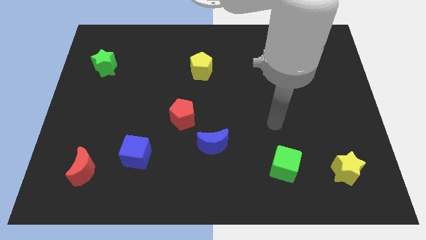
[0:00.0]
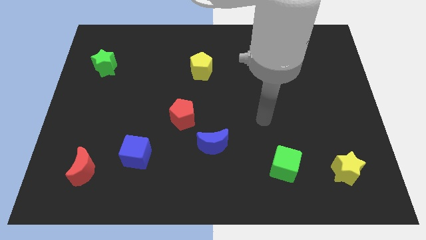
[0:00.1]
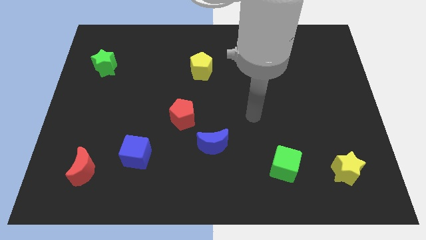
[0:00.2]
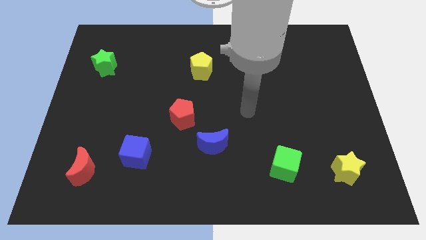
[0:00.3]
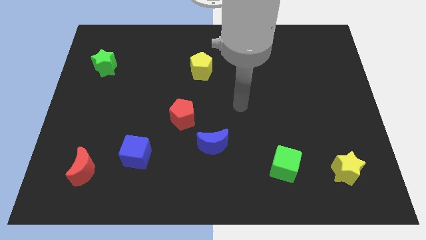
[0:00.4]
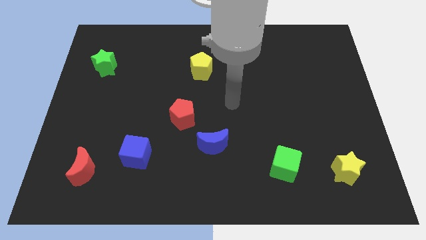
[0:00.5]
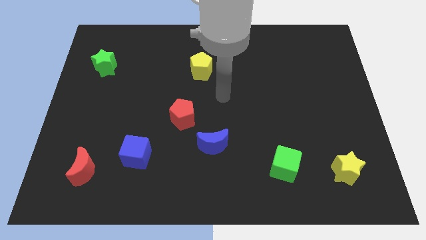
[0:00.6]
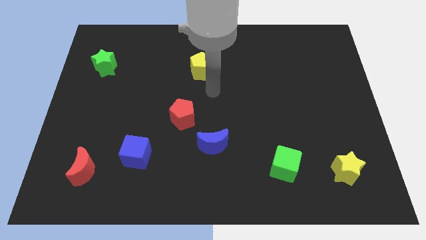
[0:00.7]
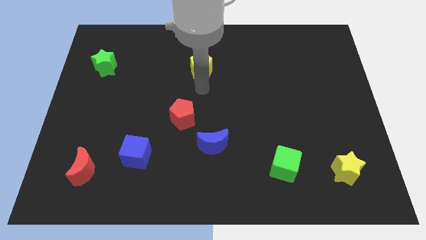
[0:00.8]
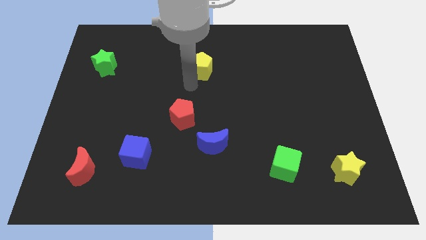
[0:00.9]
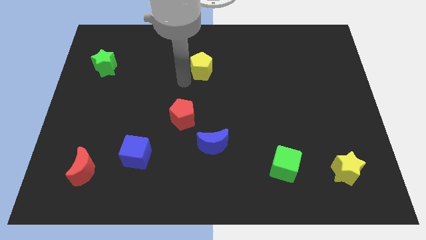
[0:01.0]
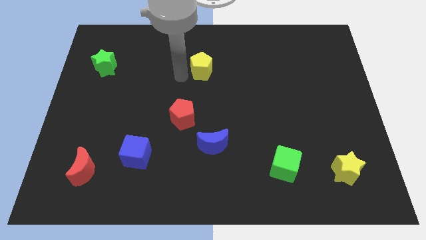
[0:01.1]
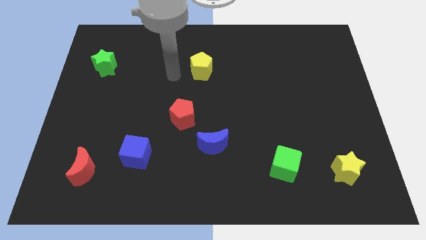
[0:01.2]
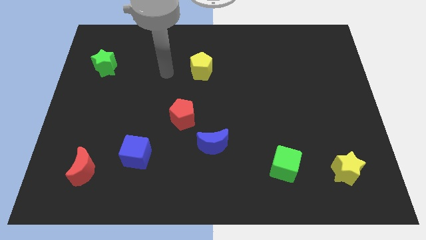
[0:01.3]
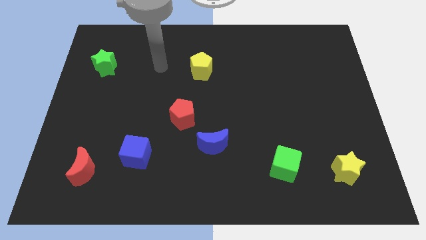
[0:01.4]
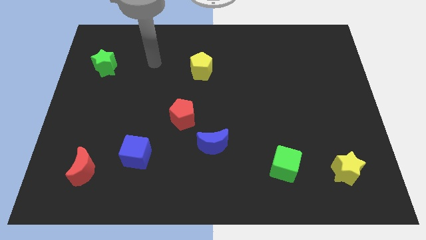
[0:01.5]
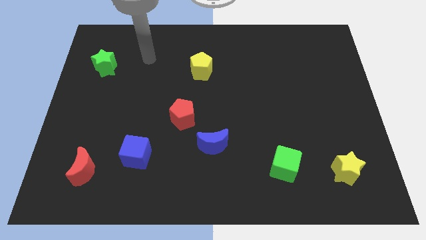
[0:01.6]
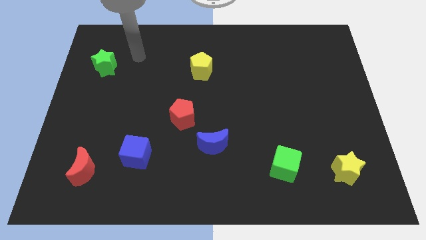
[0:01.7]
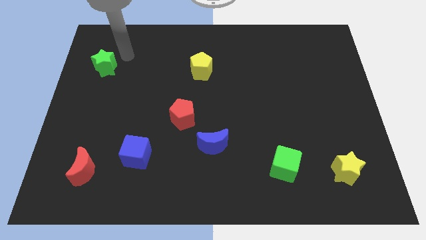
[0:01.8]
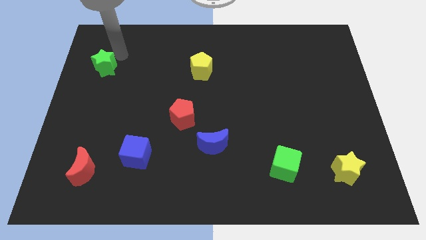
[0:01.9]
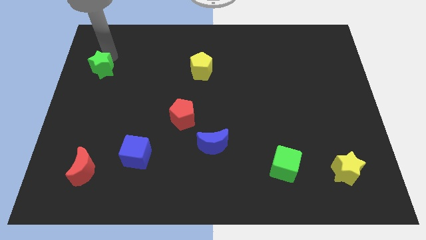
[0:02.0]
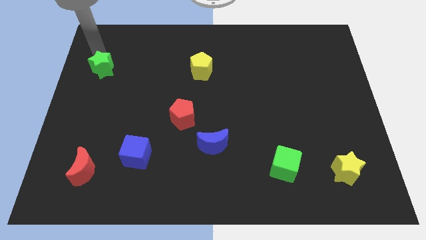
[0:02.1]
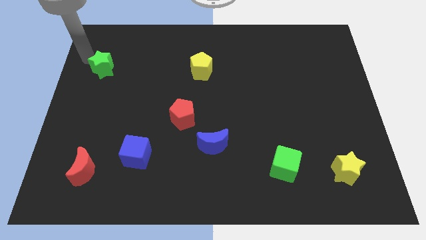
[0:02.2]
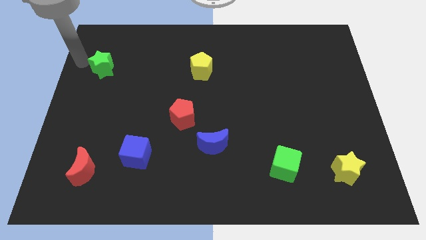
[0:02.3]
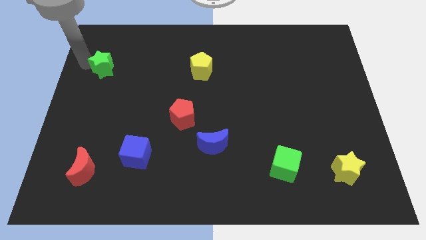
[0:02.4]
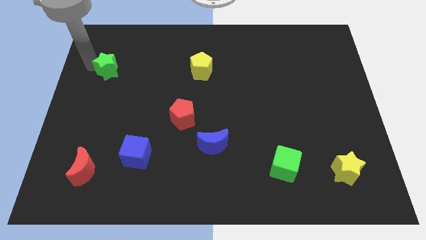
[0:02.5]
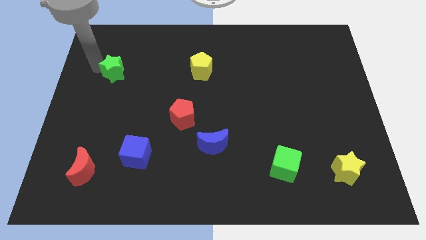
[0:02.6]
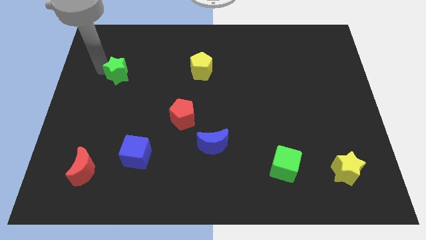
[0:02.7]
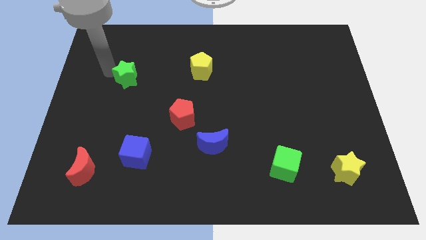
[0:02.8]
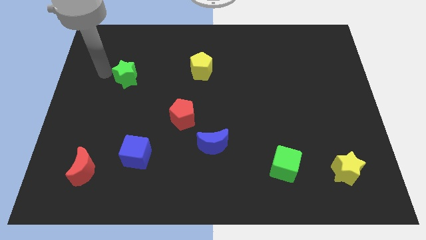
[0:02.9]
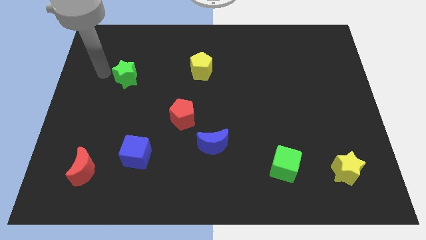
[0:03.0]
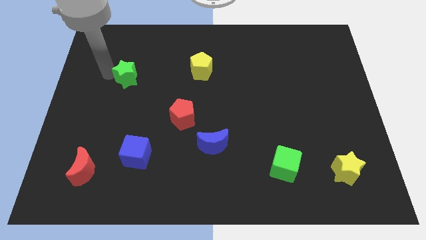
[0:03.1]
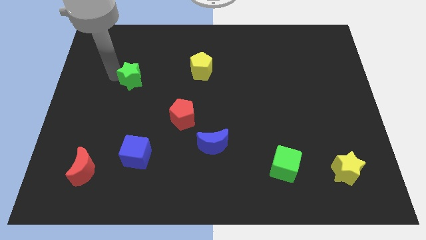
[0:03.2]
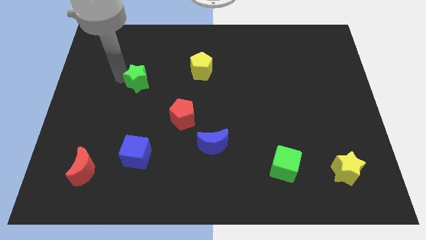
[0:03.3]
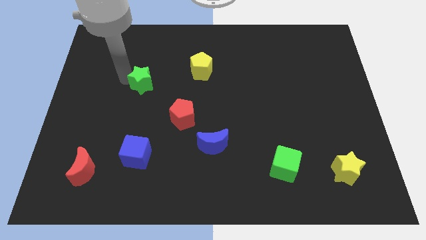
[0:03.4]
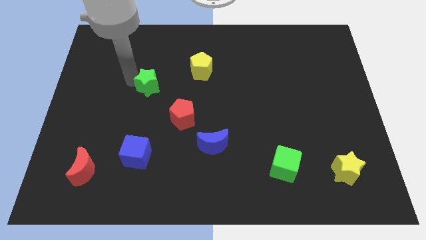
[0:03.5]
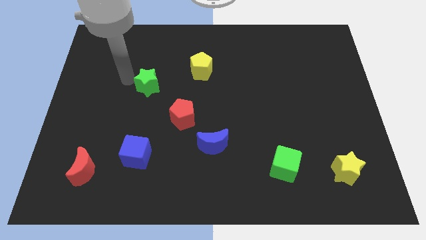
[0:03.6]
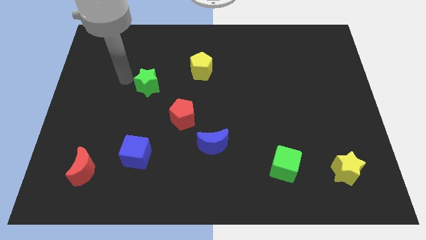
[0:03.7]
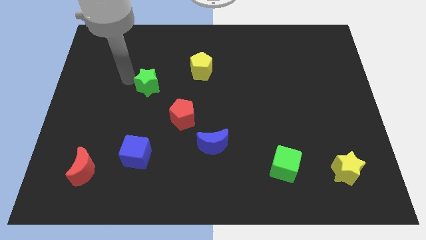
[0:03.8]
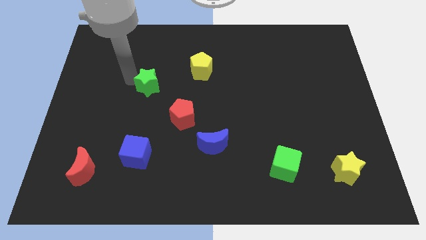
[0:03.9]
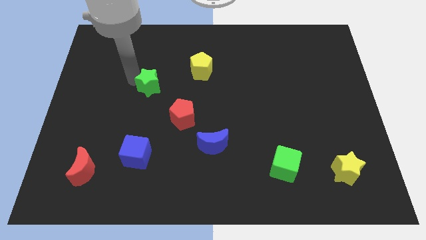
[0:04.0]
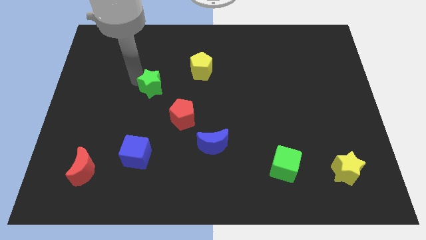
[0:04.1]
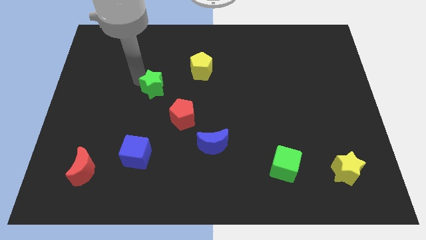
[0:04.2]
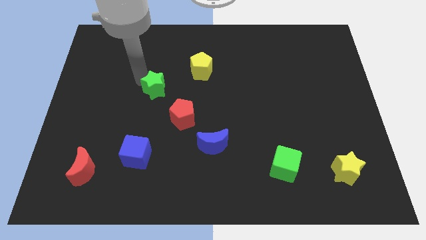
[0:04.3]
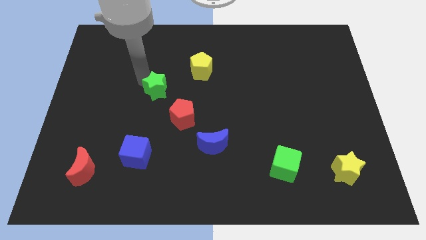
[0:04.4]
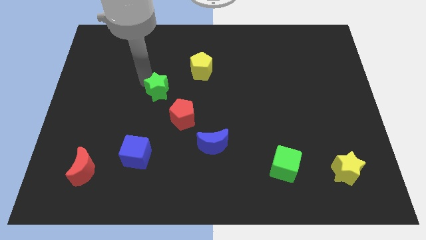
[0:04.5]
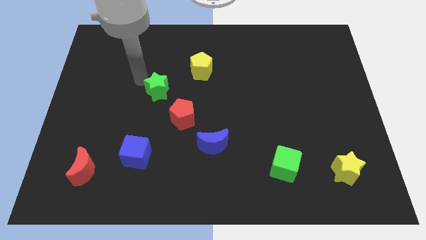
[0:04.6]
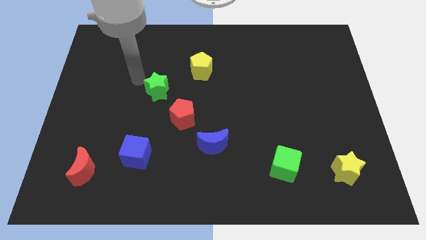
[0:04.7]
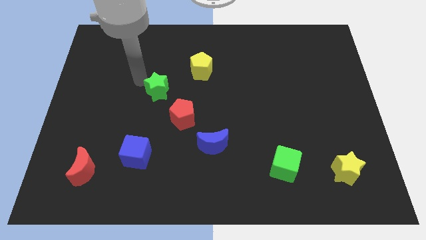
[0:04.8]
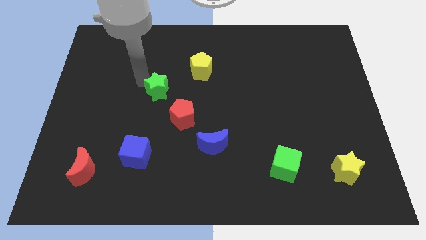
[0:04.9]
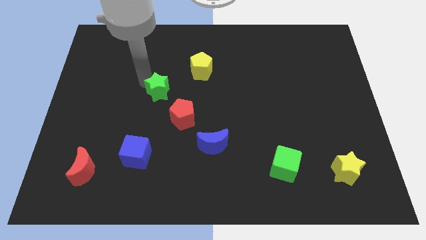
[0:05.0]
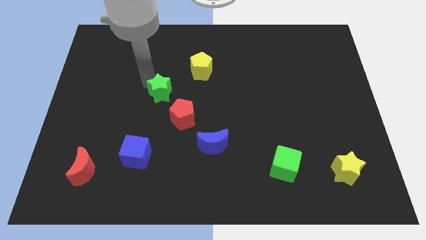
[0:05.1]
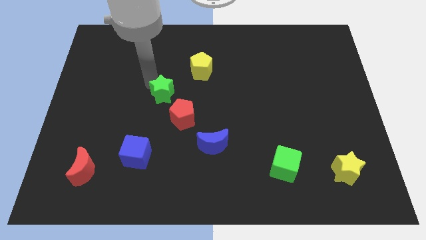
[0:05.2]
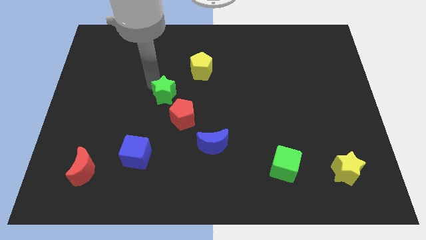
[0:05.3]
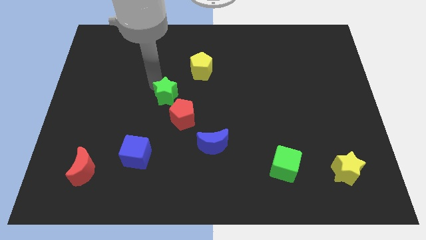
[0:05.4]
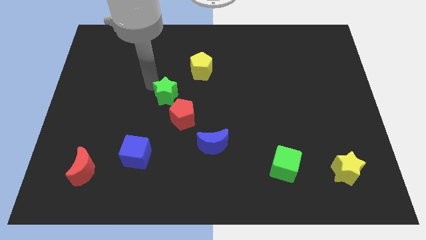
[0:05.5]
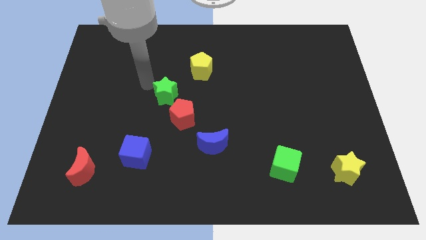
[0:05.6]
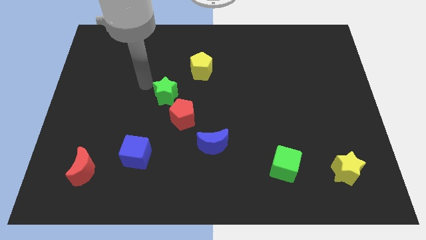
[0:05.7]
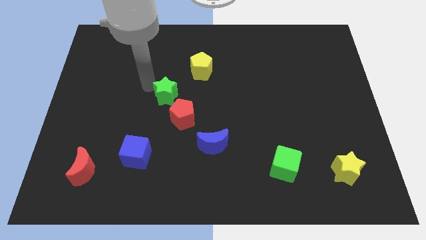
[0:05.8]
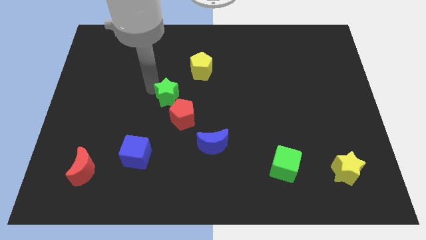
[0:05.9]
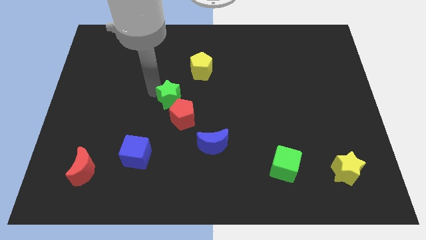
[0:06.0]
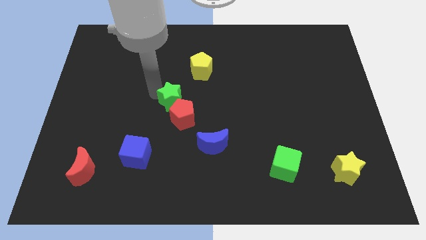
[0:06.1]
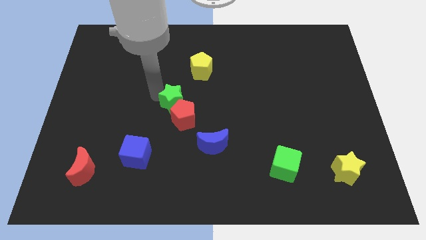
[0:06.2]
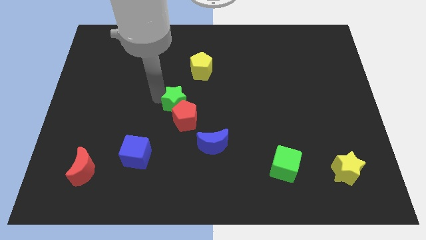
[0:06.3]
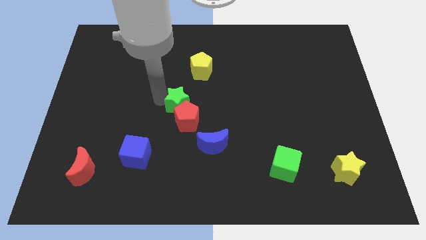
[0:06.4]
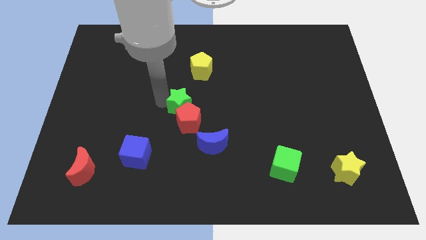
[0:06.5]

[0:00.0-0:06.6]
move the green star to the bottom side of the yellow pentagon

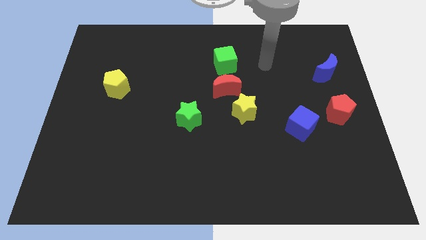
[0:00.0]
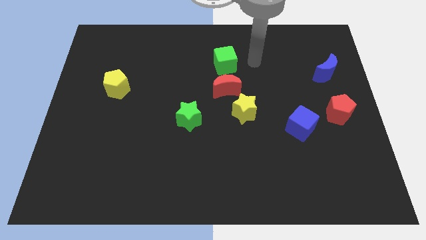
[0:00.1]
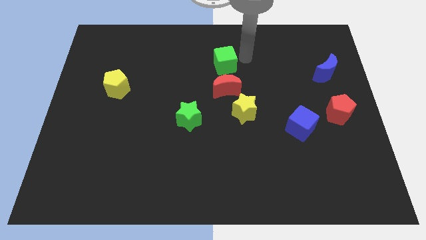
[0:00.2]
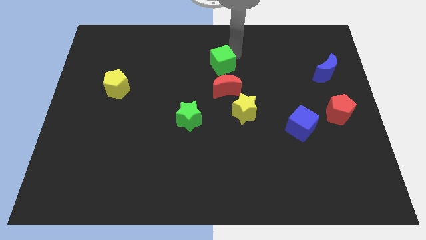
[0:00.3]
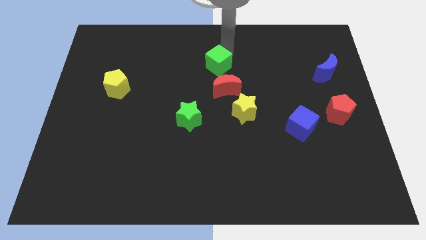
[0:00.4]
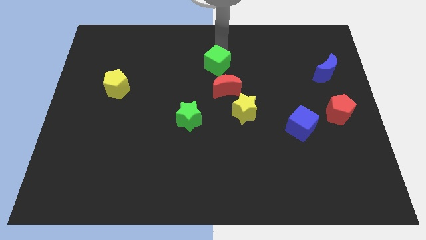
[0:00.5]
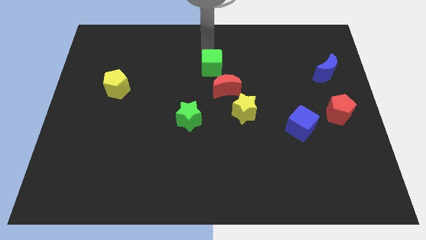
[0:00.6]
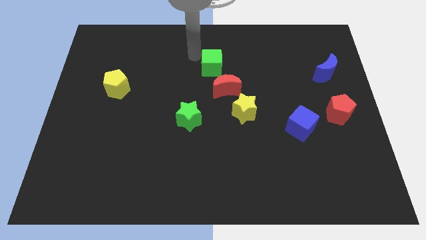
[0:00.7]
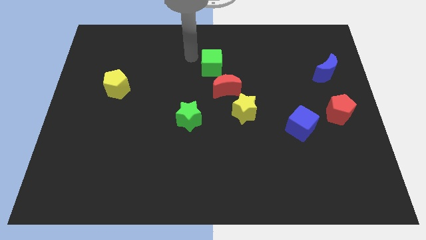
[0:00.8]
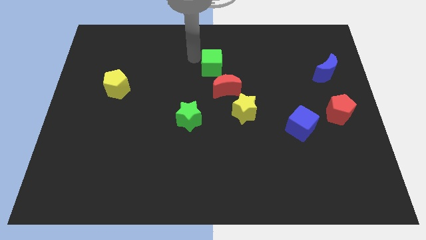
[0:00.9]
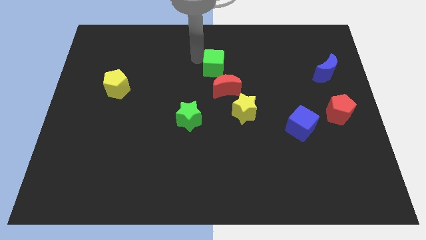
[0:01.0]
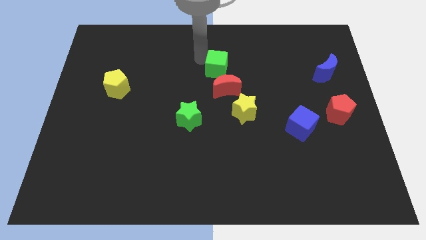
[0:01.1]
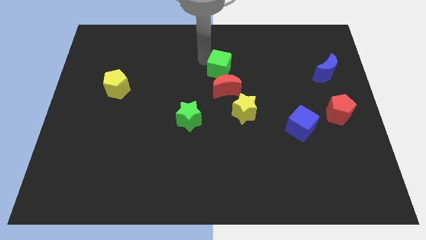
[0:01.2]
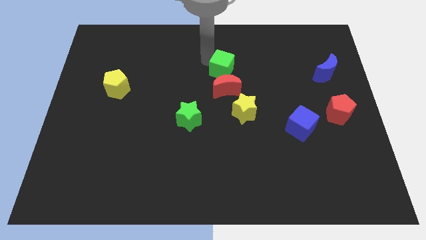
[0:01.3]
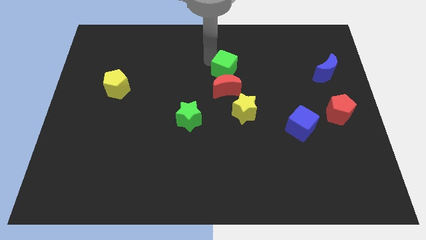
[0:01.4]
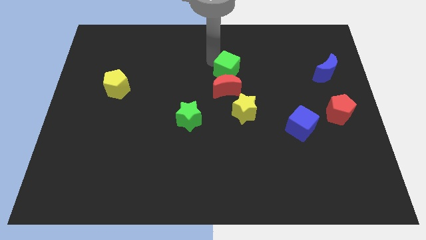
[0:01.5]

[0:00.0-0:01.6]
put the green cube to the top of the yellow star
